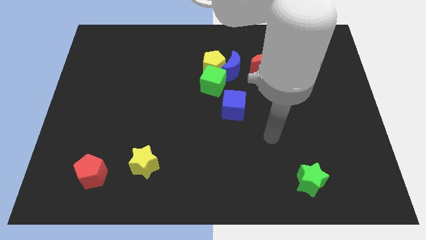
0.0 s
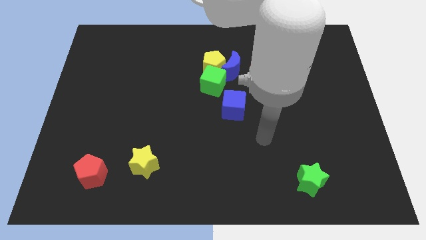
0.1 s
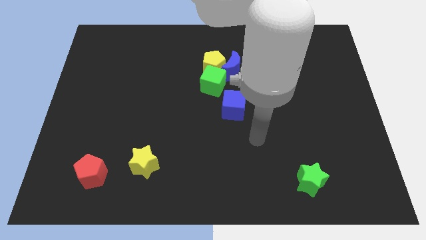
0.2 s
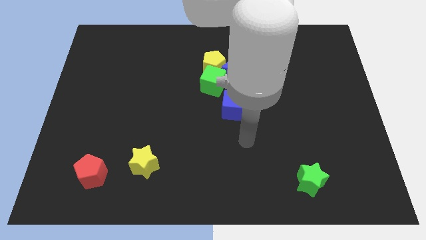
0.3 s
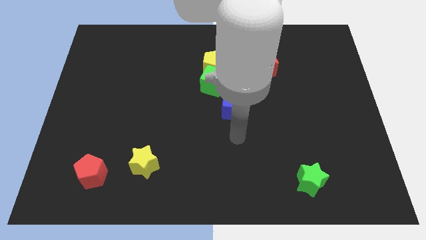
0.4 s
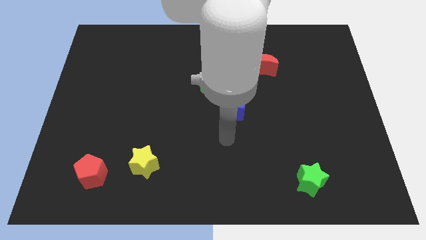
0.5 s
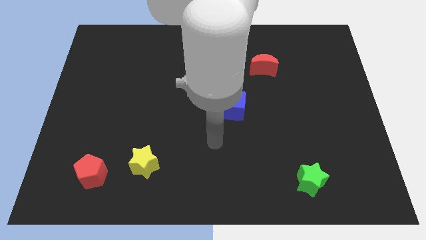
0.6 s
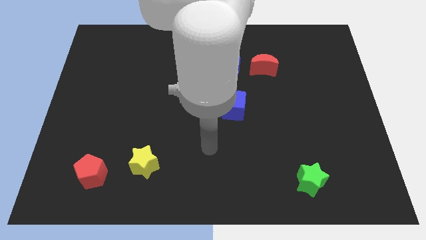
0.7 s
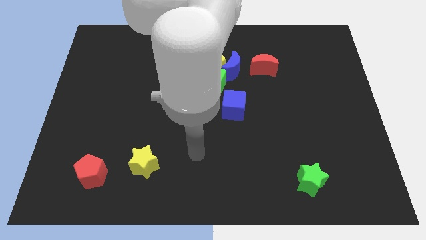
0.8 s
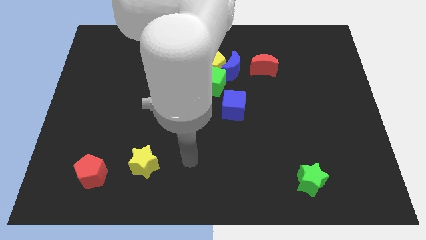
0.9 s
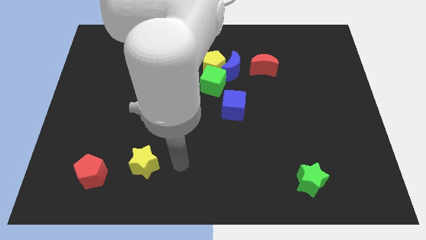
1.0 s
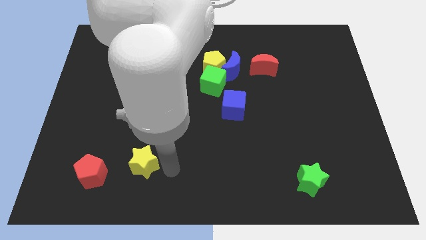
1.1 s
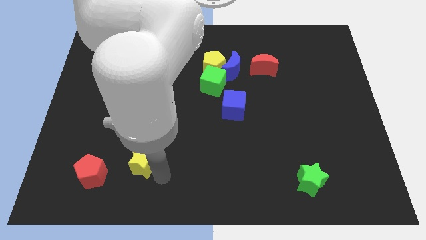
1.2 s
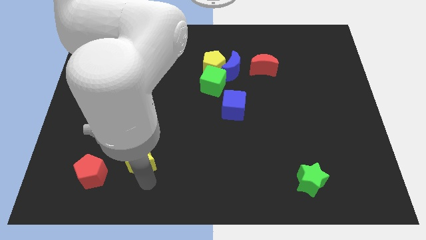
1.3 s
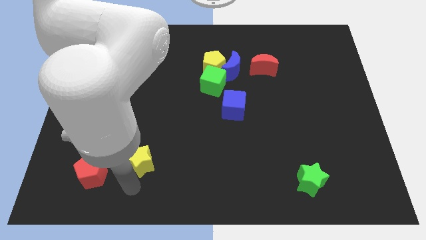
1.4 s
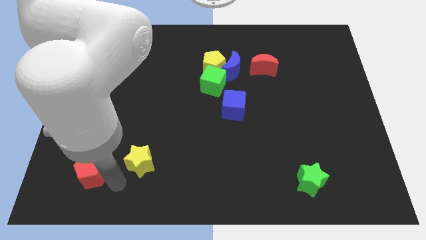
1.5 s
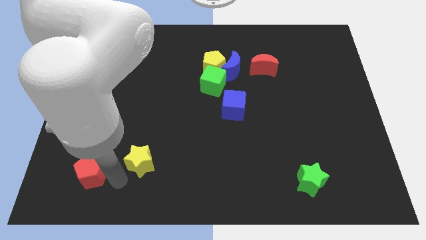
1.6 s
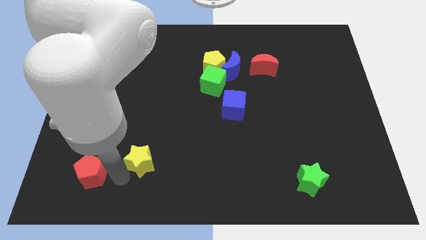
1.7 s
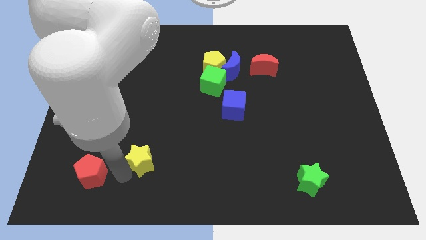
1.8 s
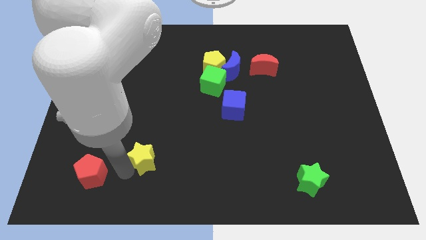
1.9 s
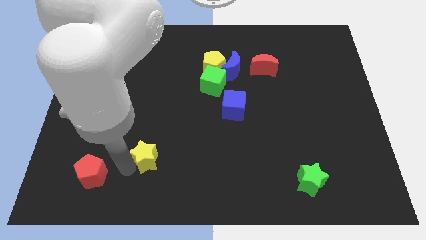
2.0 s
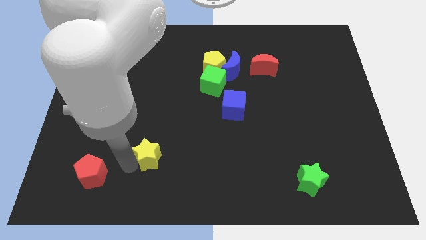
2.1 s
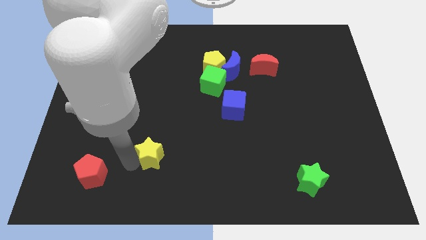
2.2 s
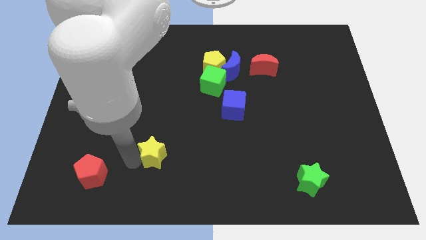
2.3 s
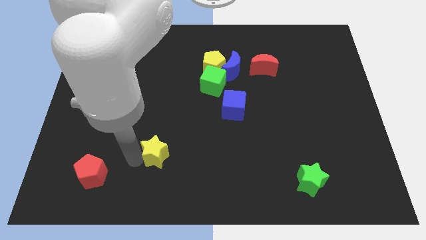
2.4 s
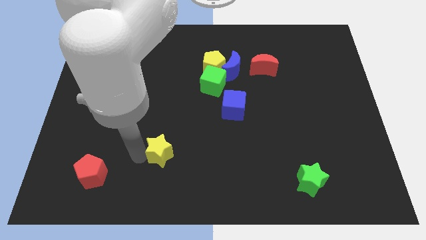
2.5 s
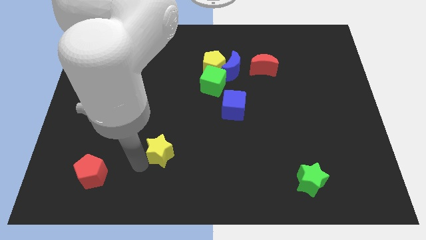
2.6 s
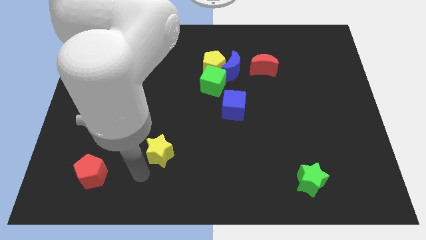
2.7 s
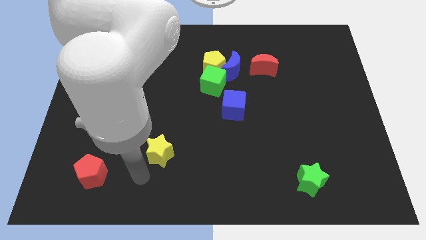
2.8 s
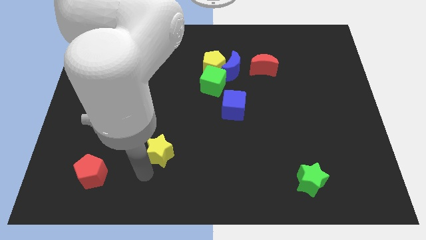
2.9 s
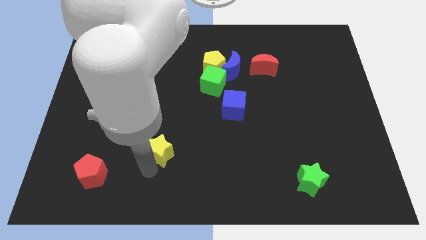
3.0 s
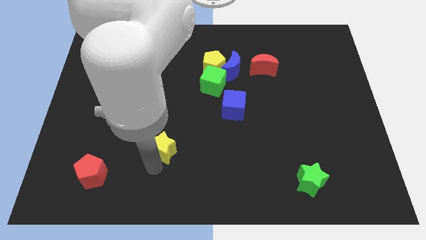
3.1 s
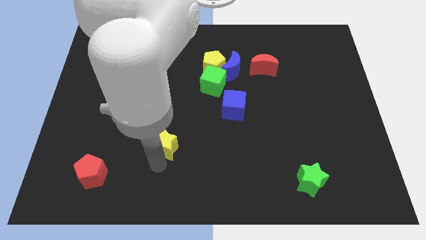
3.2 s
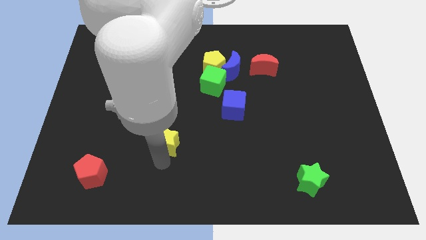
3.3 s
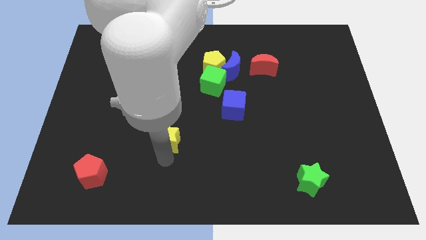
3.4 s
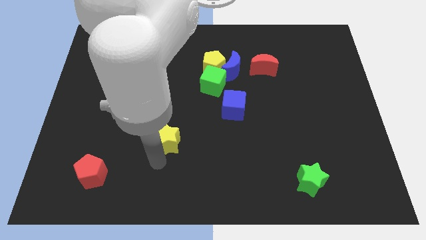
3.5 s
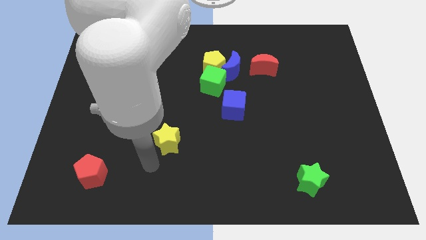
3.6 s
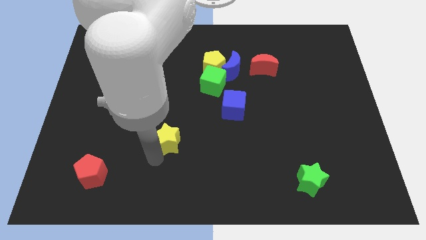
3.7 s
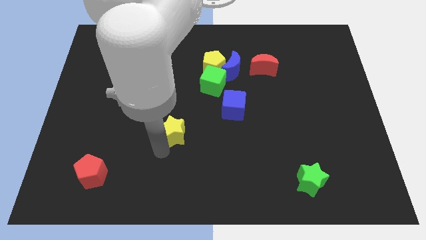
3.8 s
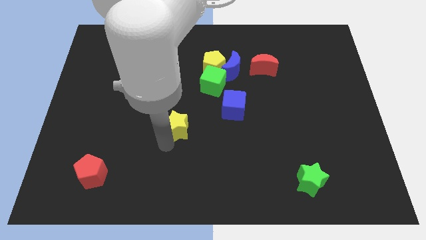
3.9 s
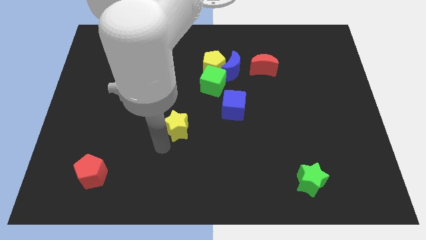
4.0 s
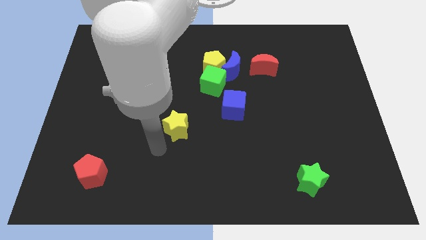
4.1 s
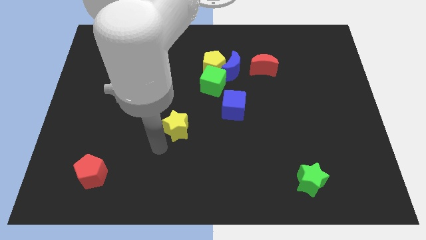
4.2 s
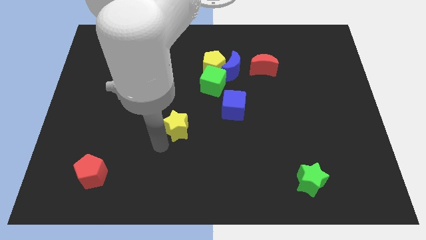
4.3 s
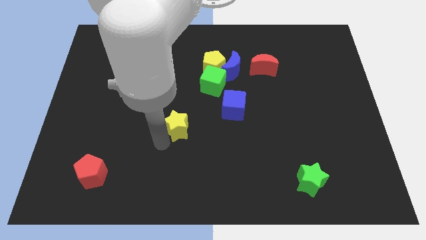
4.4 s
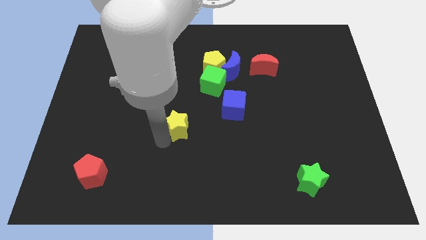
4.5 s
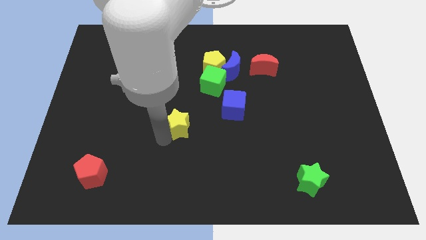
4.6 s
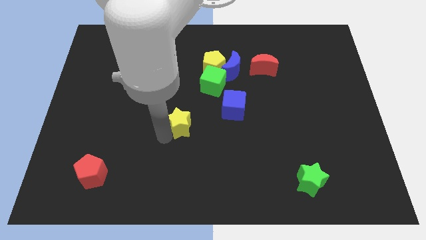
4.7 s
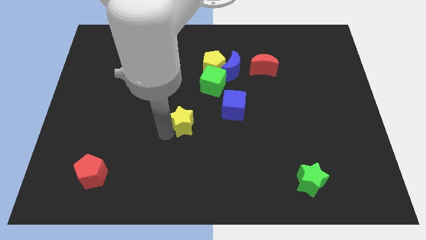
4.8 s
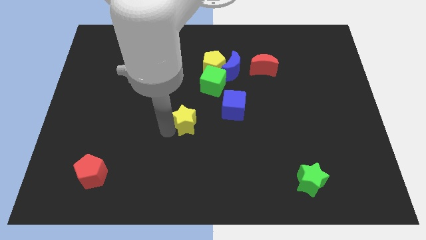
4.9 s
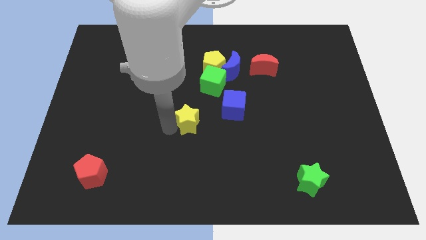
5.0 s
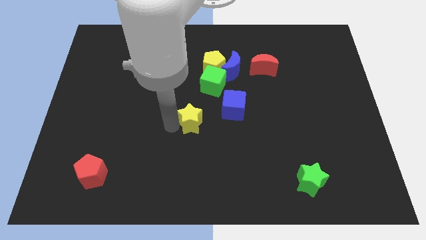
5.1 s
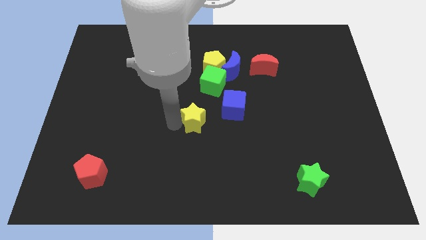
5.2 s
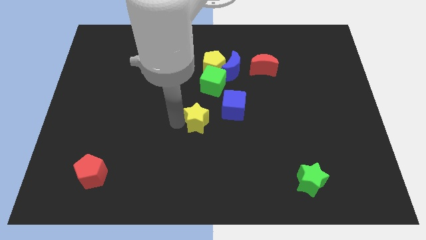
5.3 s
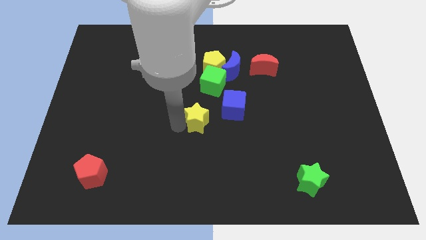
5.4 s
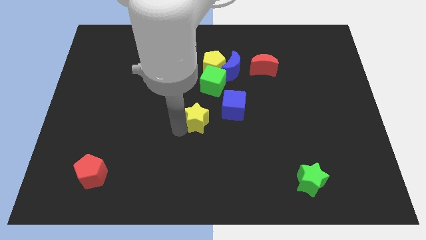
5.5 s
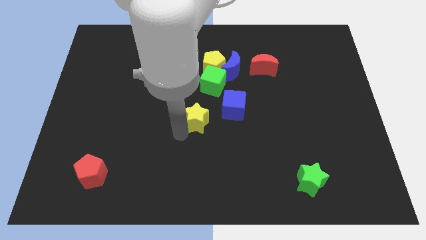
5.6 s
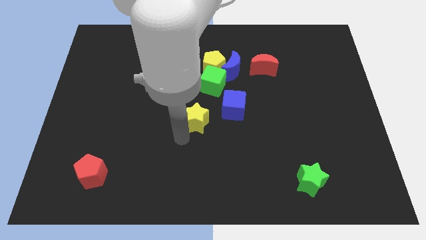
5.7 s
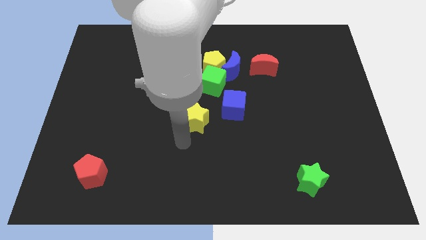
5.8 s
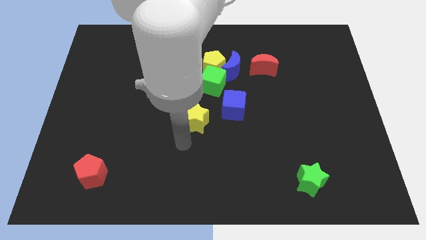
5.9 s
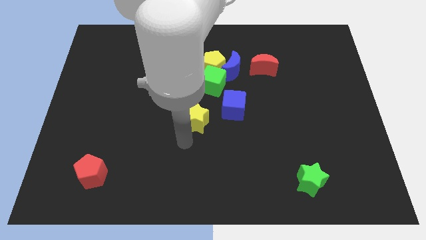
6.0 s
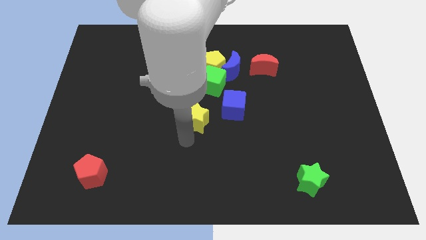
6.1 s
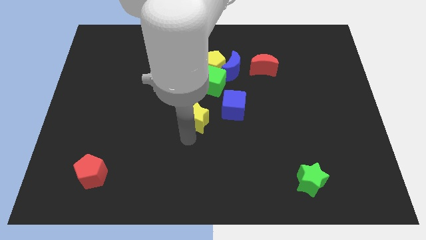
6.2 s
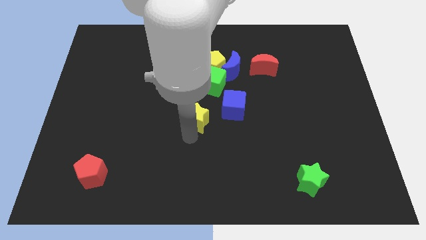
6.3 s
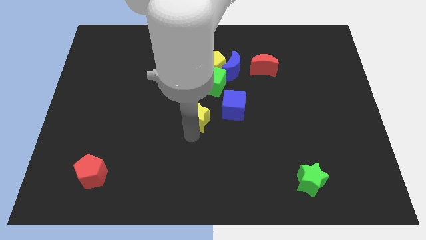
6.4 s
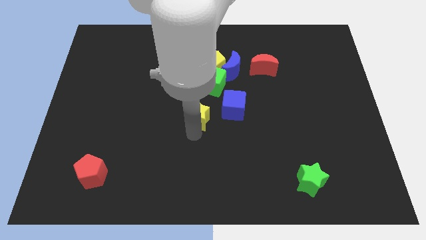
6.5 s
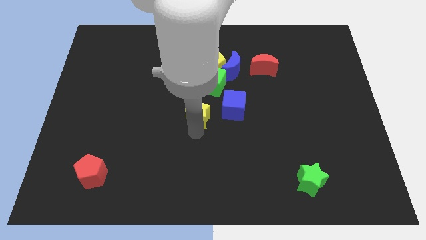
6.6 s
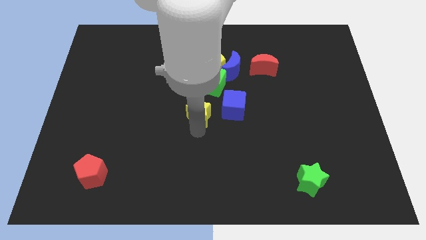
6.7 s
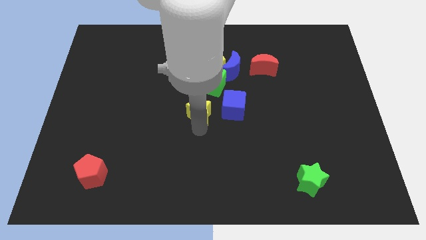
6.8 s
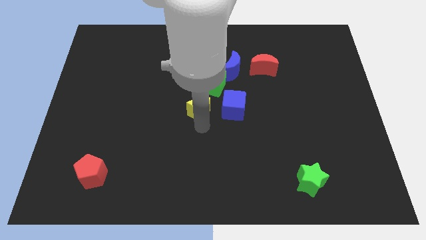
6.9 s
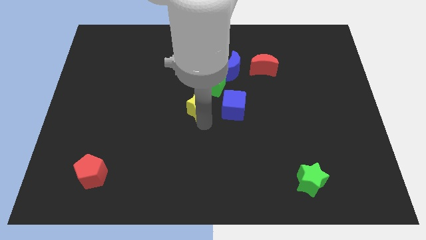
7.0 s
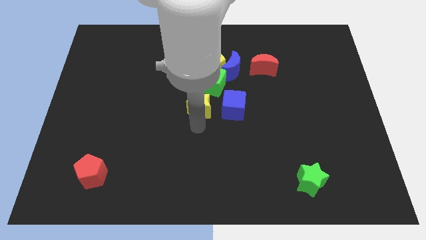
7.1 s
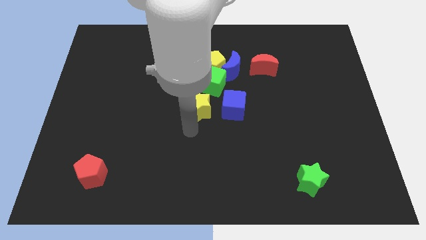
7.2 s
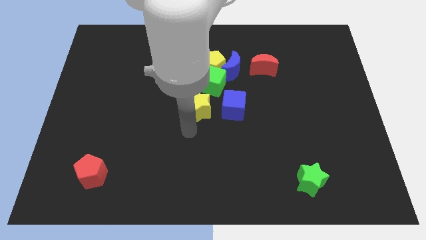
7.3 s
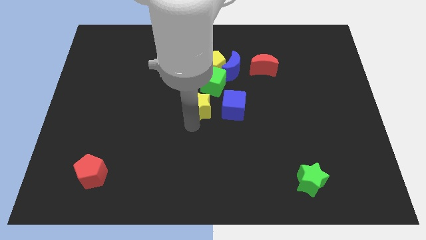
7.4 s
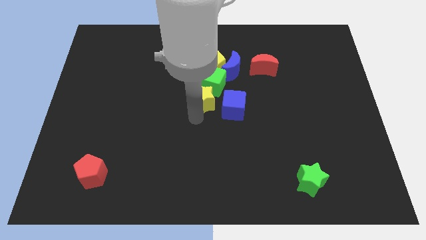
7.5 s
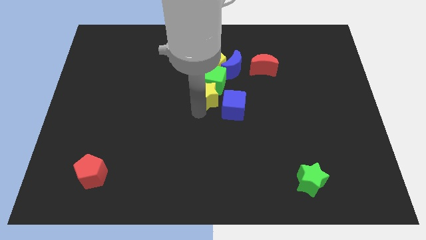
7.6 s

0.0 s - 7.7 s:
slide the yellow star to the green cube

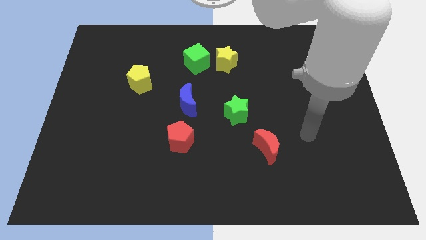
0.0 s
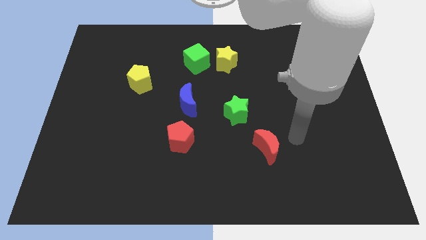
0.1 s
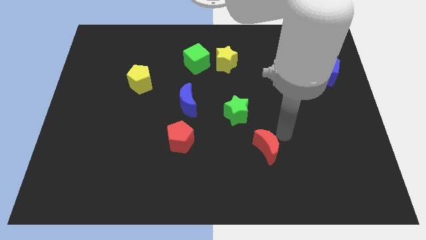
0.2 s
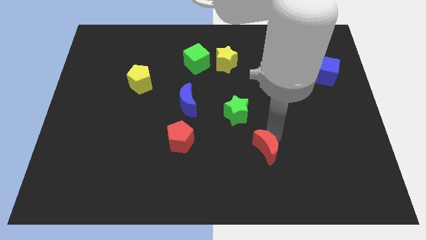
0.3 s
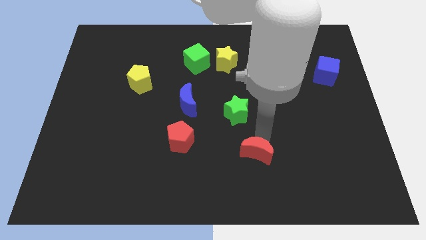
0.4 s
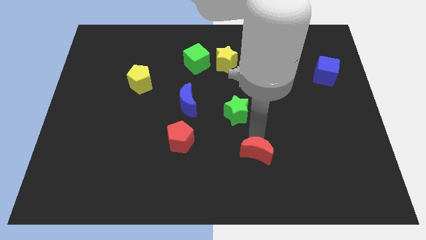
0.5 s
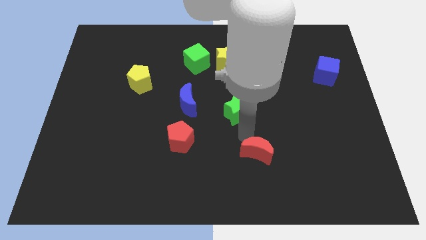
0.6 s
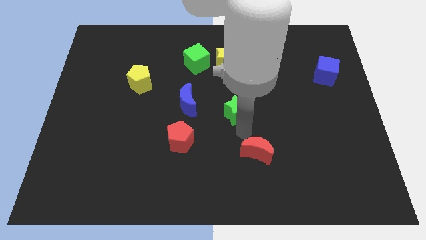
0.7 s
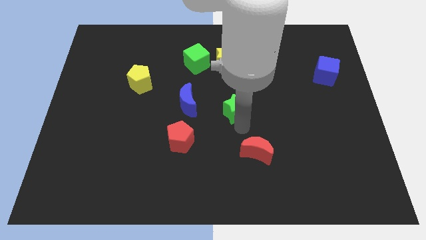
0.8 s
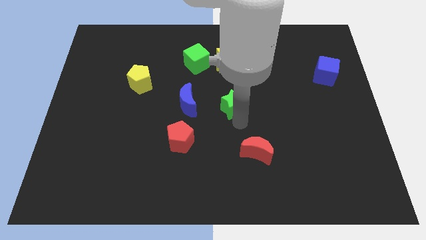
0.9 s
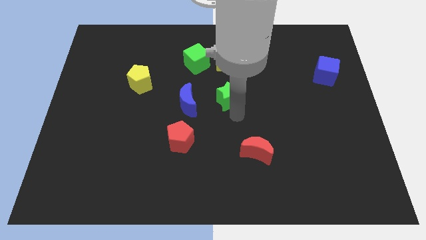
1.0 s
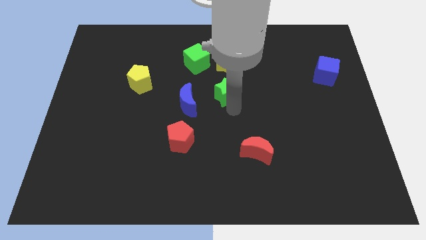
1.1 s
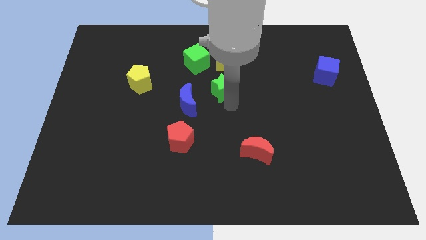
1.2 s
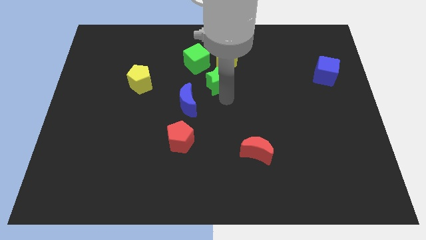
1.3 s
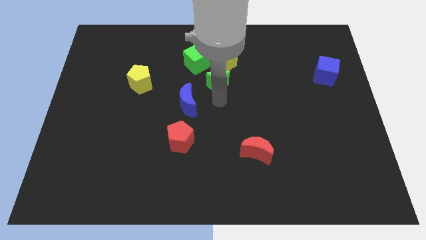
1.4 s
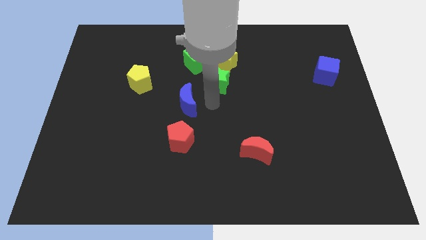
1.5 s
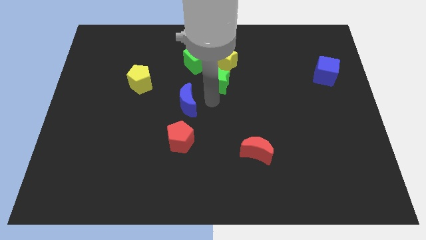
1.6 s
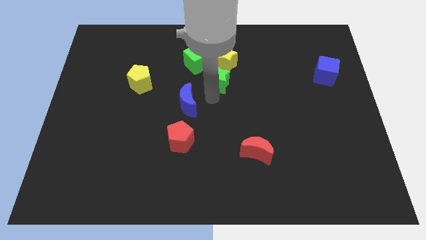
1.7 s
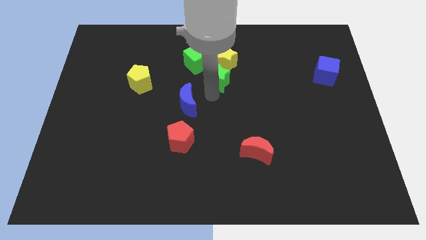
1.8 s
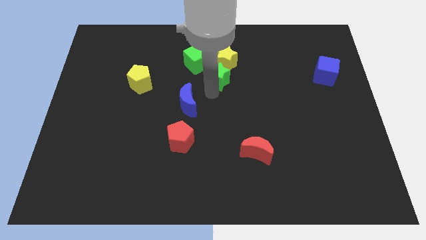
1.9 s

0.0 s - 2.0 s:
push the green star towards the yellow star
